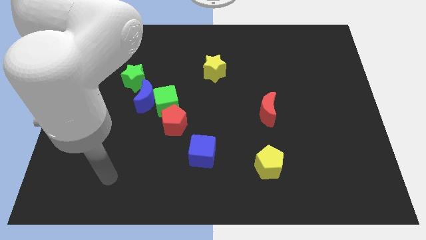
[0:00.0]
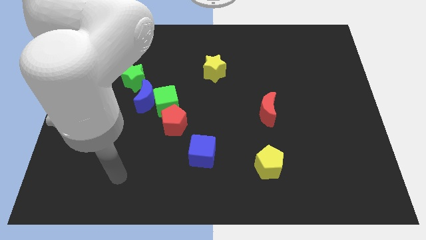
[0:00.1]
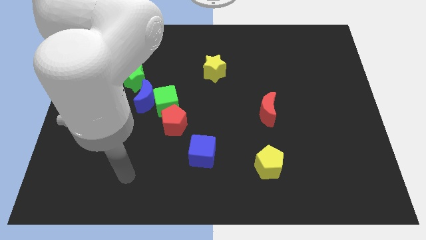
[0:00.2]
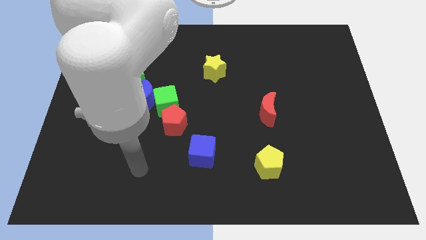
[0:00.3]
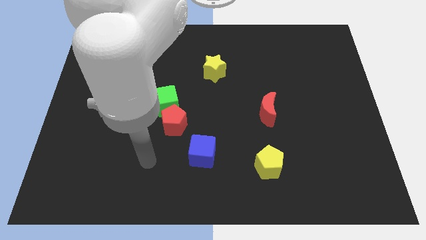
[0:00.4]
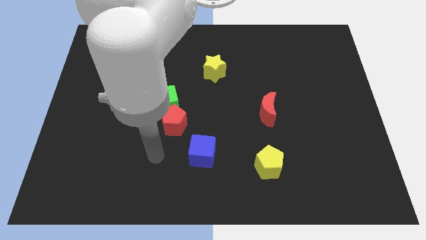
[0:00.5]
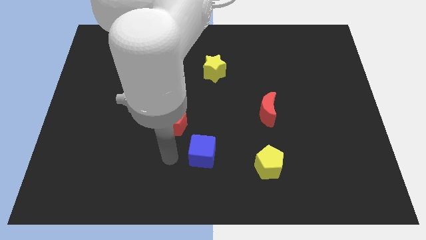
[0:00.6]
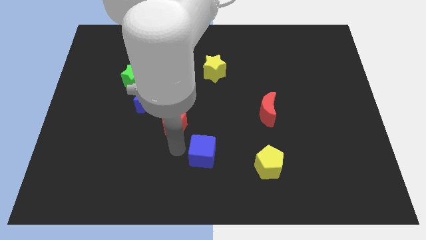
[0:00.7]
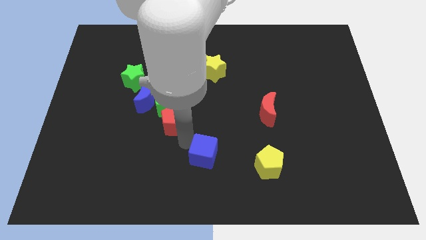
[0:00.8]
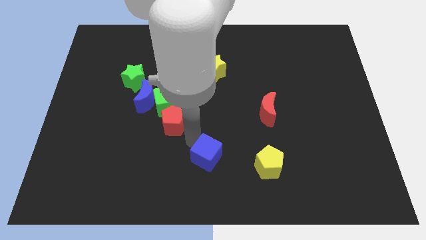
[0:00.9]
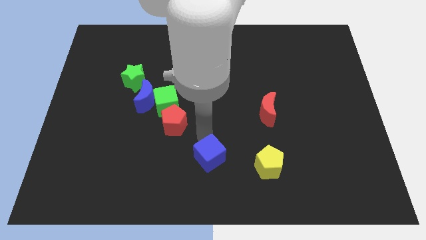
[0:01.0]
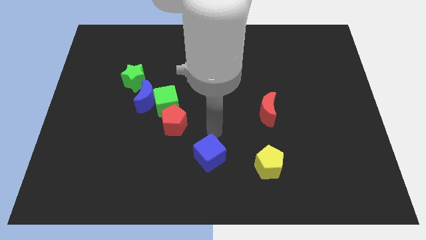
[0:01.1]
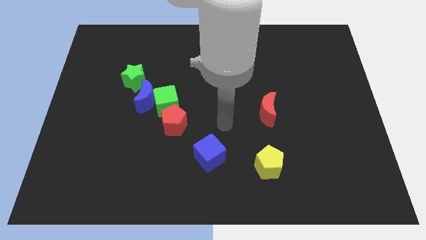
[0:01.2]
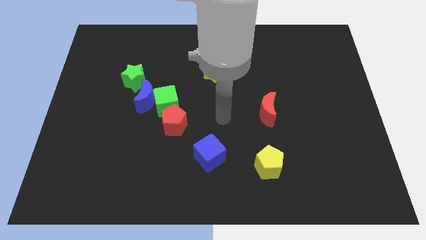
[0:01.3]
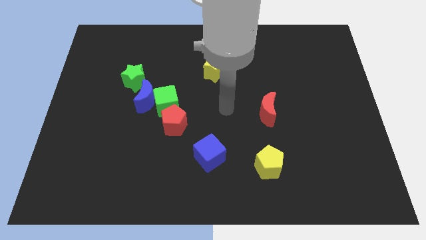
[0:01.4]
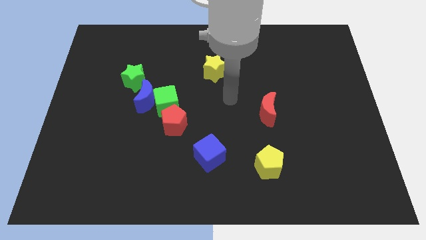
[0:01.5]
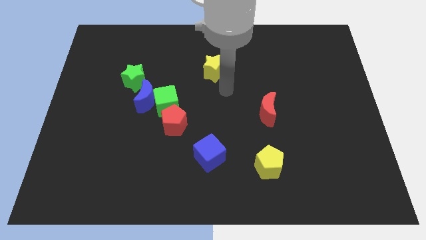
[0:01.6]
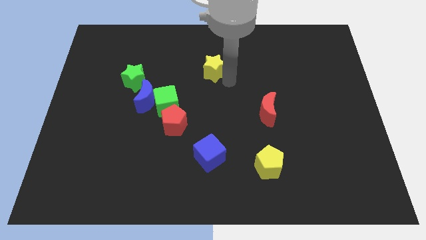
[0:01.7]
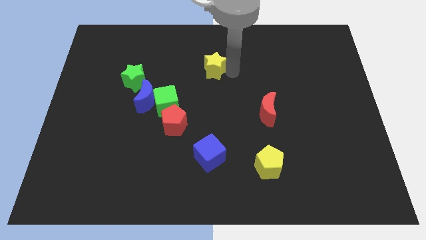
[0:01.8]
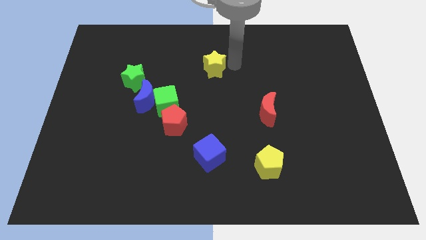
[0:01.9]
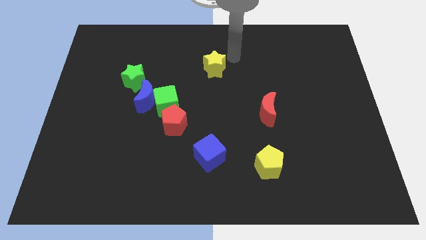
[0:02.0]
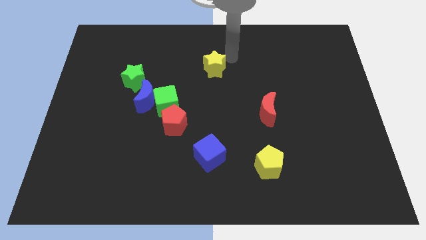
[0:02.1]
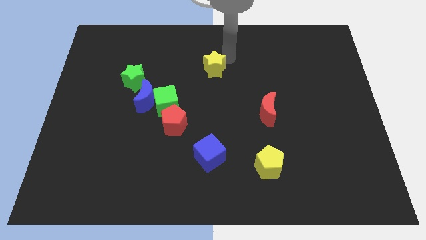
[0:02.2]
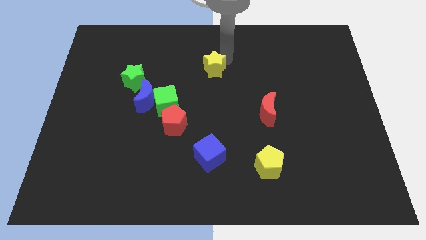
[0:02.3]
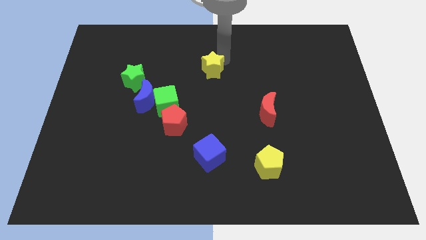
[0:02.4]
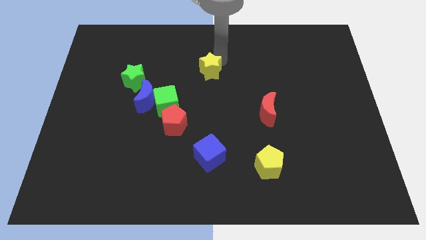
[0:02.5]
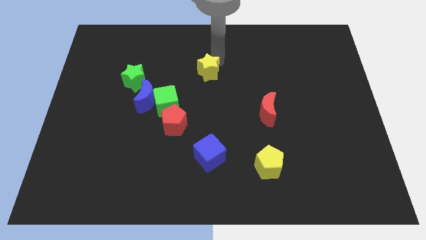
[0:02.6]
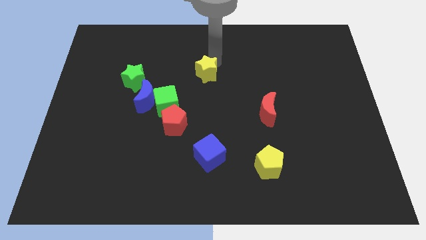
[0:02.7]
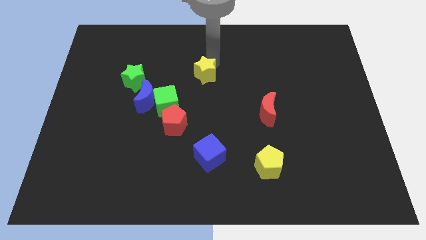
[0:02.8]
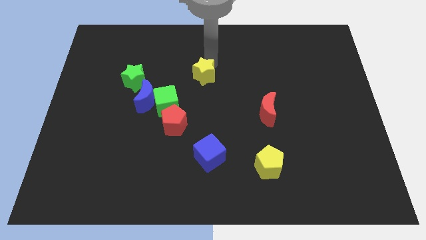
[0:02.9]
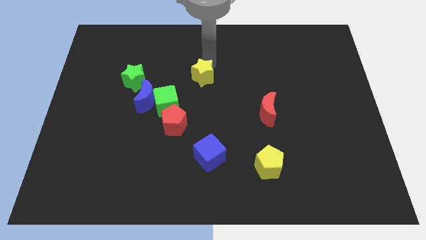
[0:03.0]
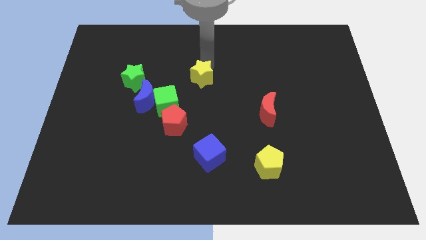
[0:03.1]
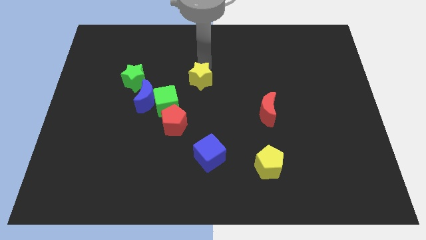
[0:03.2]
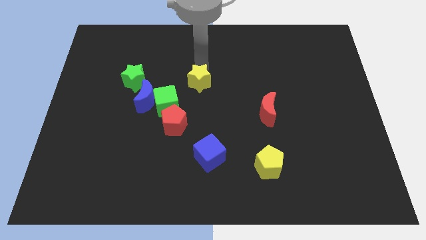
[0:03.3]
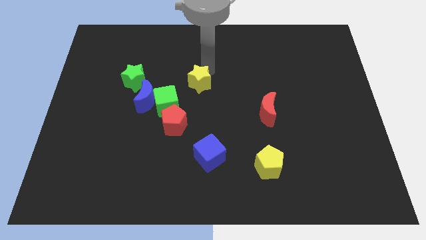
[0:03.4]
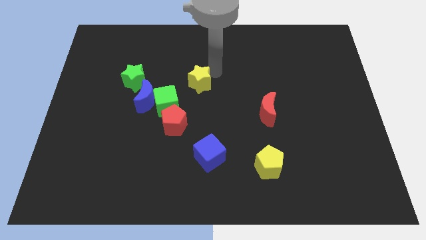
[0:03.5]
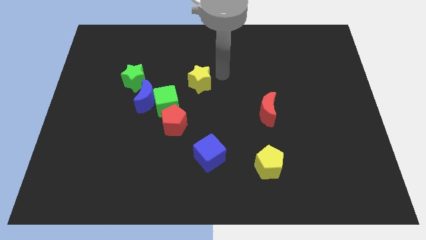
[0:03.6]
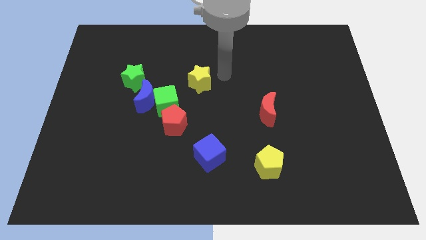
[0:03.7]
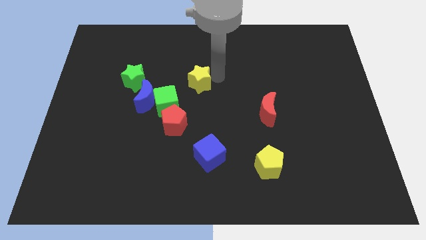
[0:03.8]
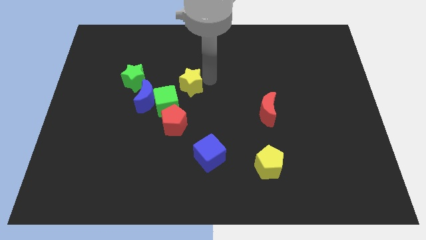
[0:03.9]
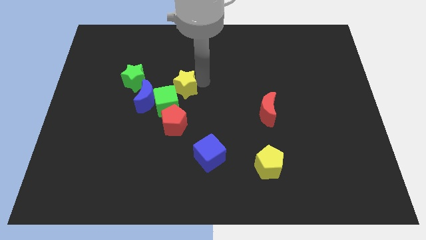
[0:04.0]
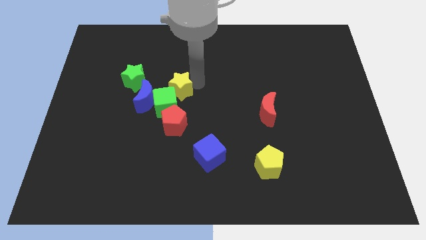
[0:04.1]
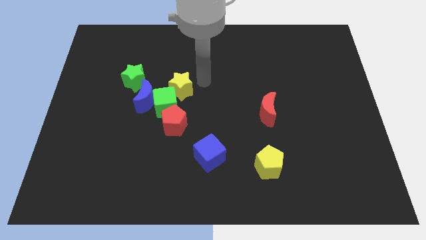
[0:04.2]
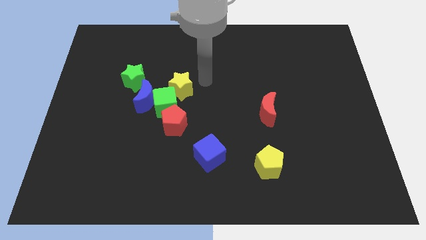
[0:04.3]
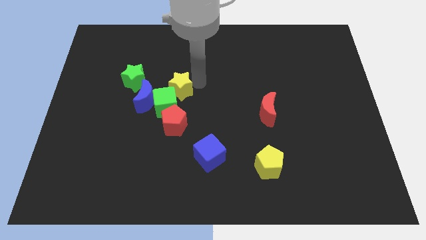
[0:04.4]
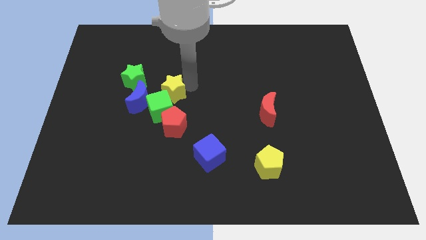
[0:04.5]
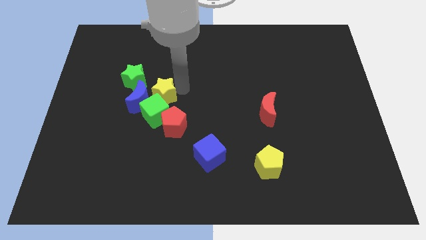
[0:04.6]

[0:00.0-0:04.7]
slide the yellow star to the blue moon

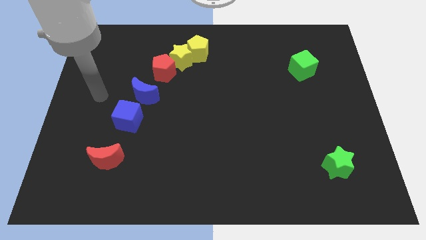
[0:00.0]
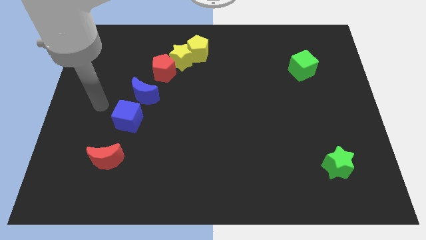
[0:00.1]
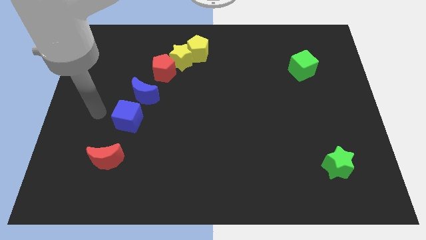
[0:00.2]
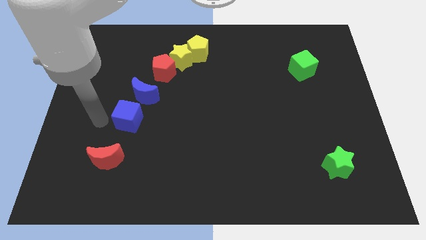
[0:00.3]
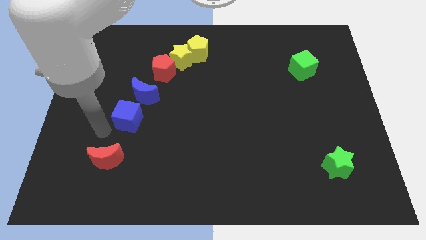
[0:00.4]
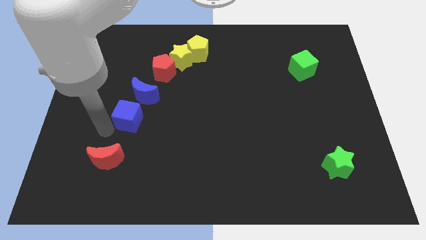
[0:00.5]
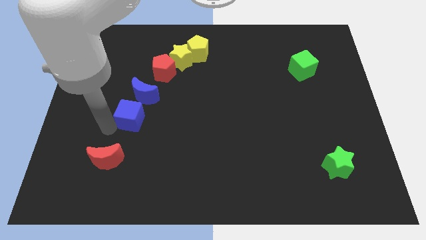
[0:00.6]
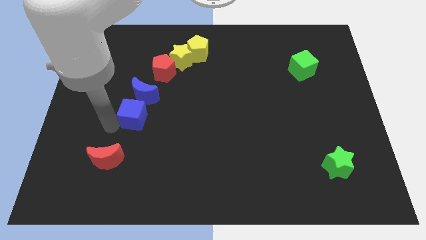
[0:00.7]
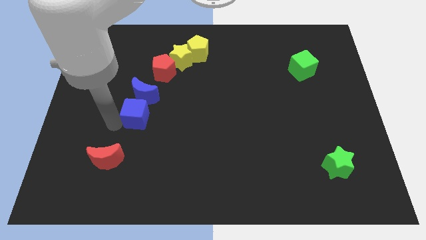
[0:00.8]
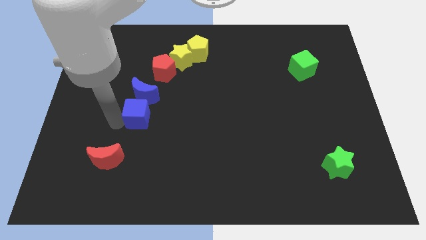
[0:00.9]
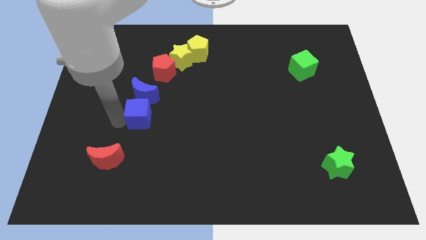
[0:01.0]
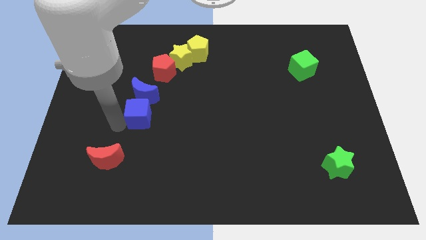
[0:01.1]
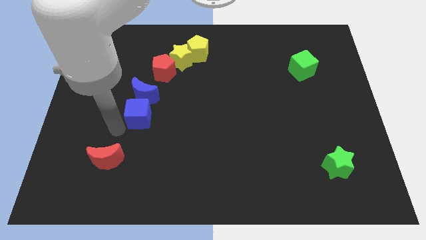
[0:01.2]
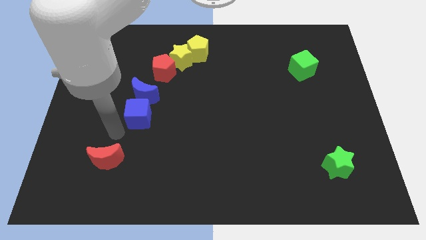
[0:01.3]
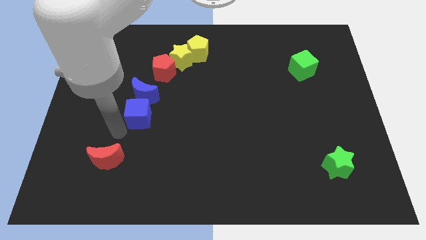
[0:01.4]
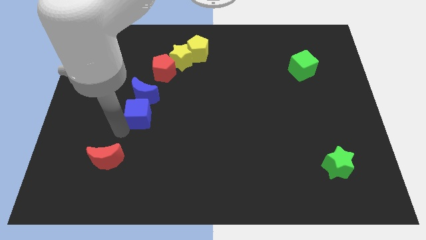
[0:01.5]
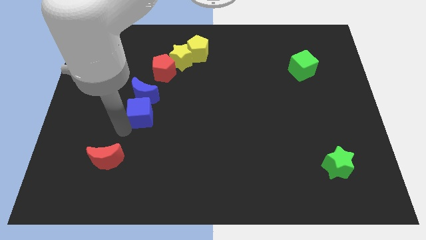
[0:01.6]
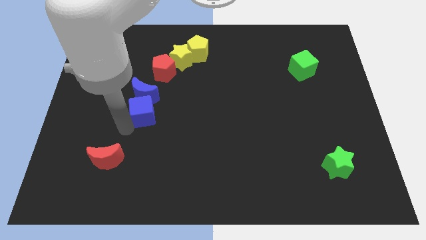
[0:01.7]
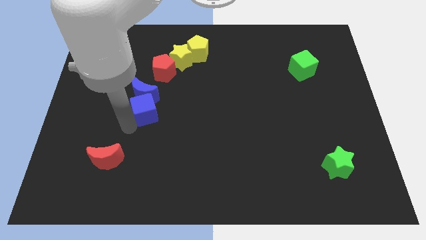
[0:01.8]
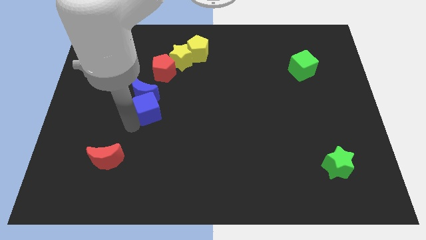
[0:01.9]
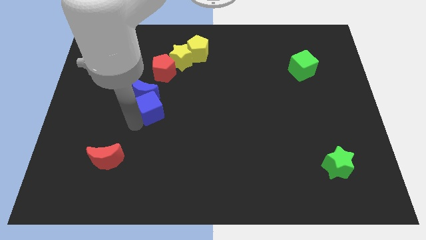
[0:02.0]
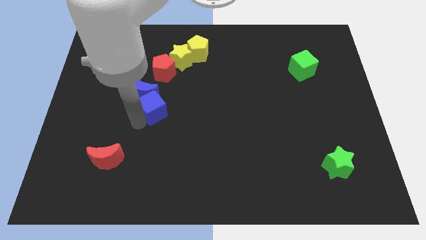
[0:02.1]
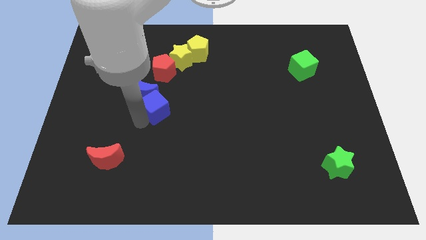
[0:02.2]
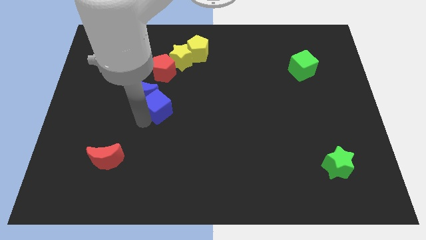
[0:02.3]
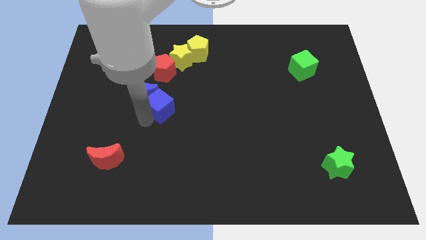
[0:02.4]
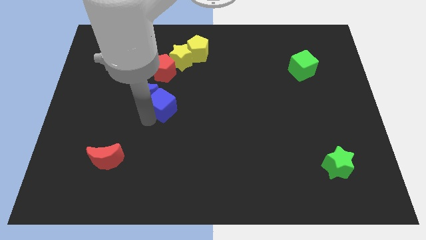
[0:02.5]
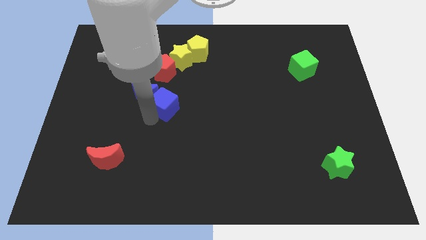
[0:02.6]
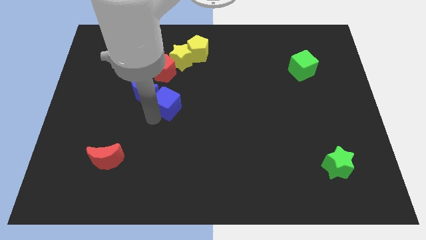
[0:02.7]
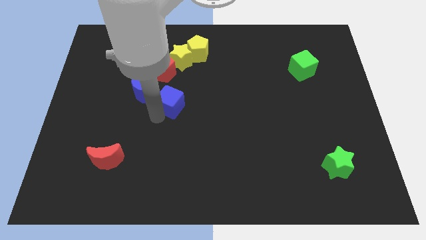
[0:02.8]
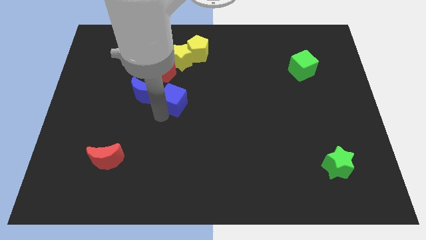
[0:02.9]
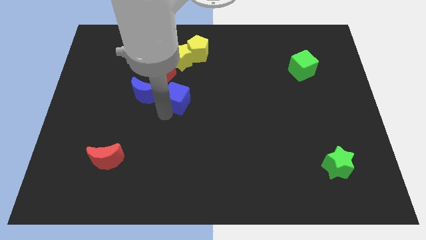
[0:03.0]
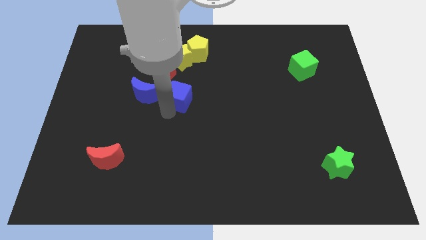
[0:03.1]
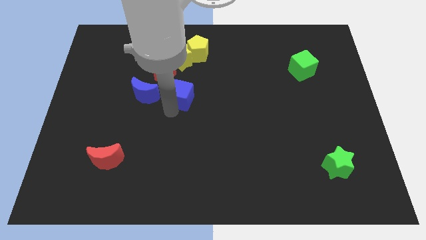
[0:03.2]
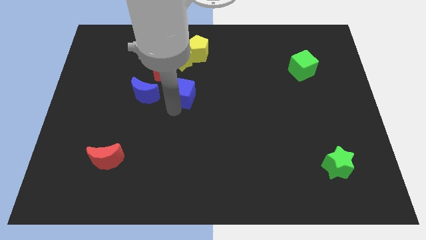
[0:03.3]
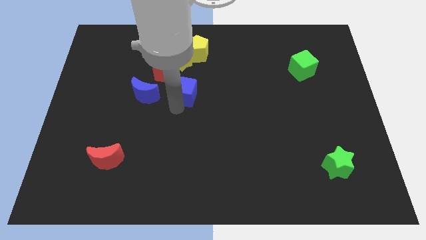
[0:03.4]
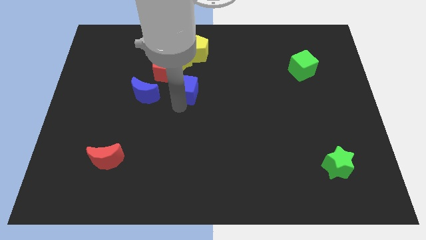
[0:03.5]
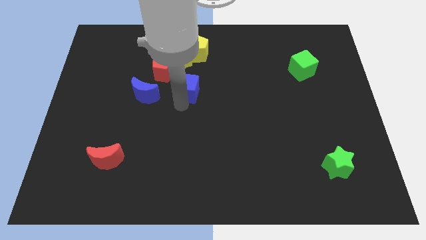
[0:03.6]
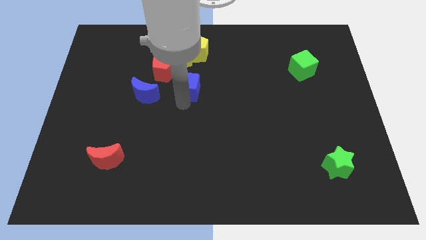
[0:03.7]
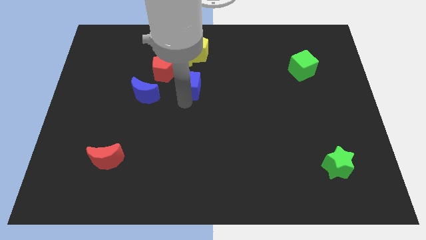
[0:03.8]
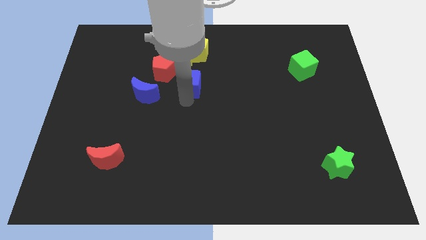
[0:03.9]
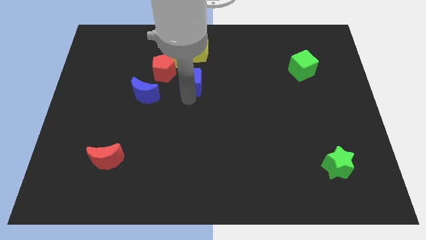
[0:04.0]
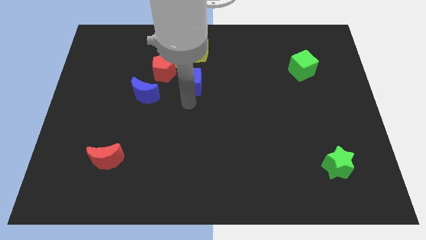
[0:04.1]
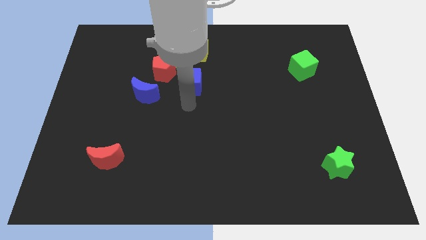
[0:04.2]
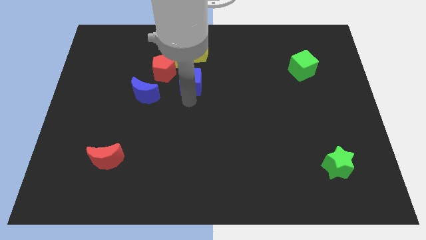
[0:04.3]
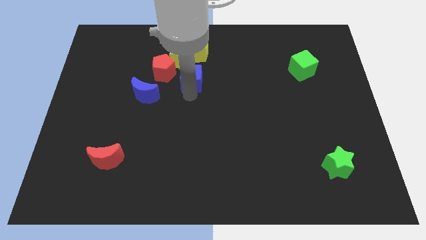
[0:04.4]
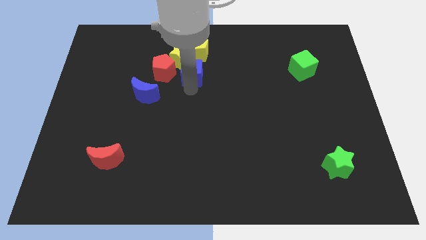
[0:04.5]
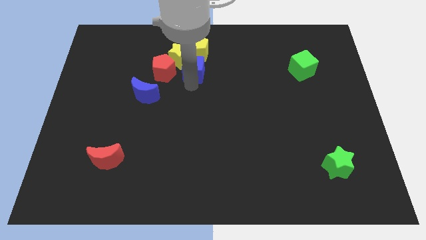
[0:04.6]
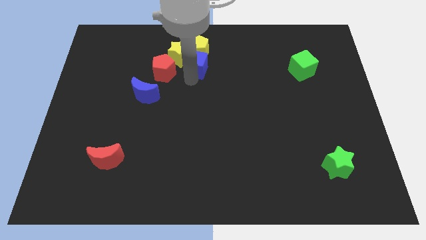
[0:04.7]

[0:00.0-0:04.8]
put the blue cube towards the yellow pentagon
